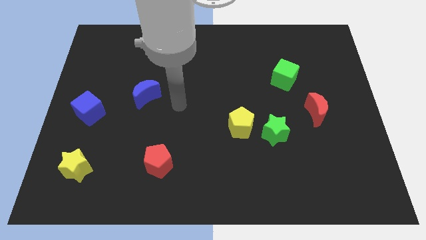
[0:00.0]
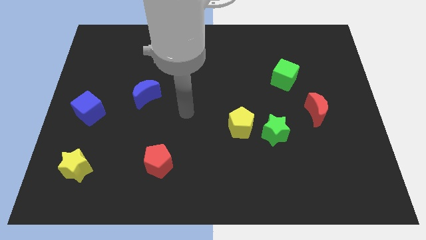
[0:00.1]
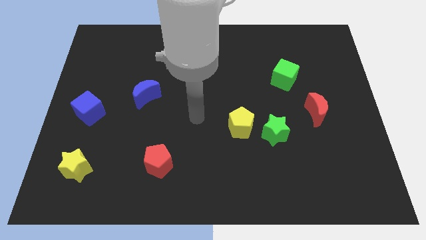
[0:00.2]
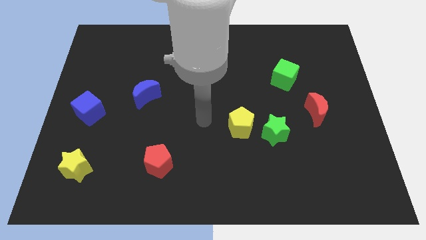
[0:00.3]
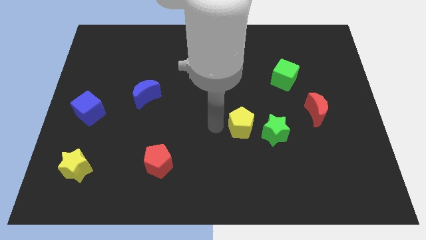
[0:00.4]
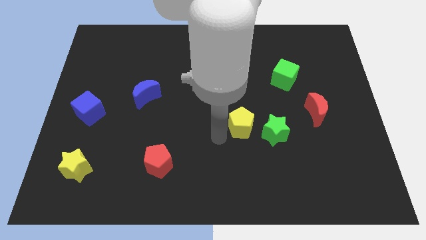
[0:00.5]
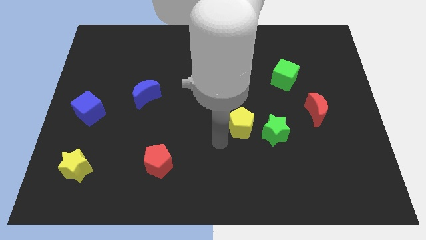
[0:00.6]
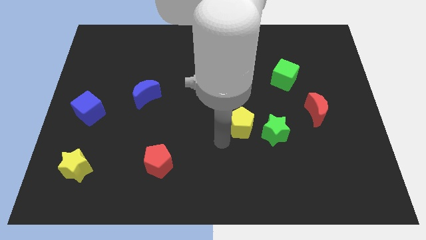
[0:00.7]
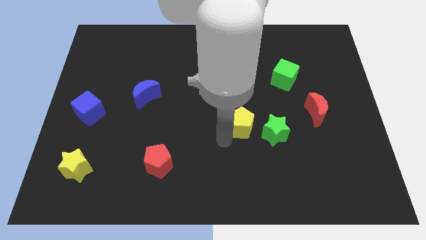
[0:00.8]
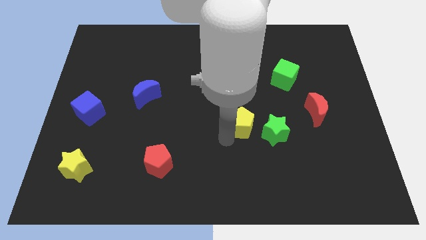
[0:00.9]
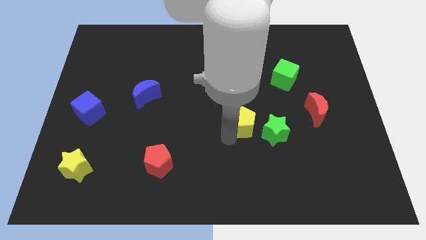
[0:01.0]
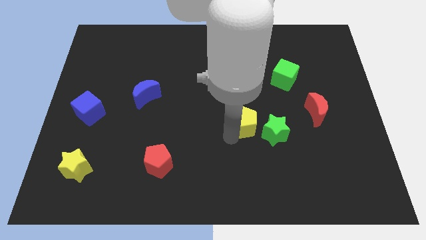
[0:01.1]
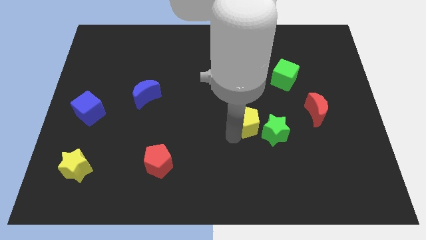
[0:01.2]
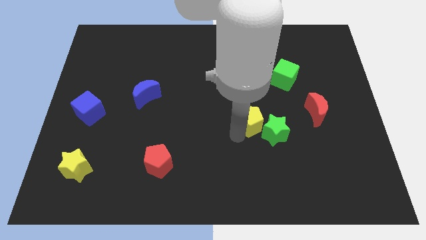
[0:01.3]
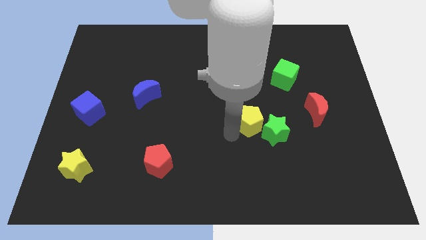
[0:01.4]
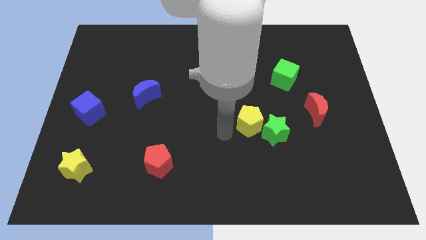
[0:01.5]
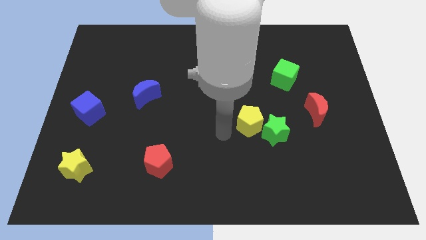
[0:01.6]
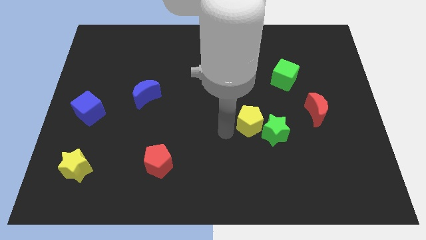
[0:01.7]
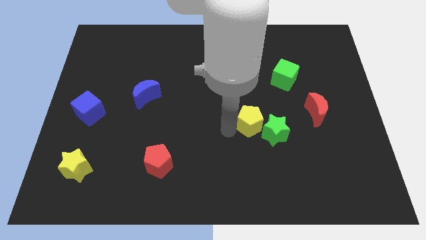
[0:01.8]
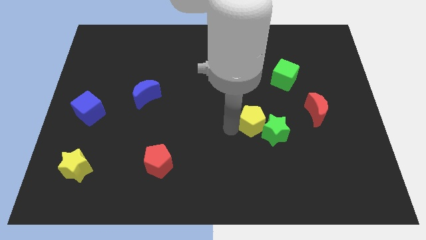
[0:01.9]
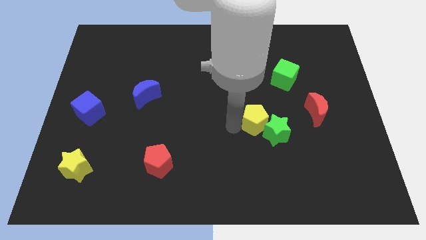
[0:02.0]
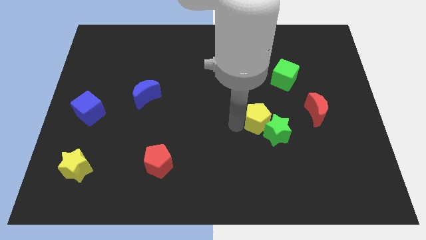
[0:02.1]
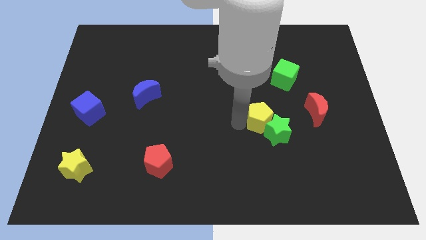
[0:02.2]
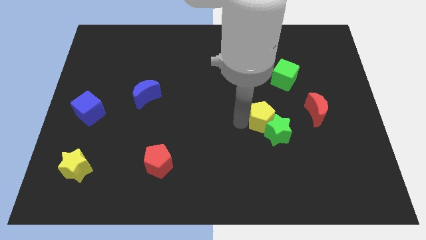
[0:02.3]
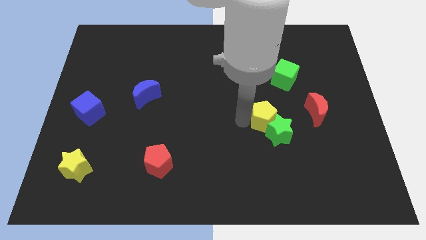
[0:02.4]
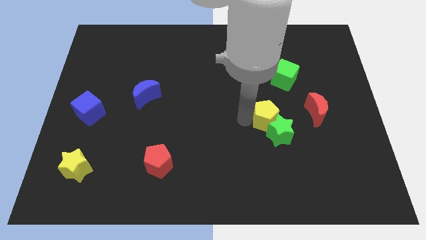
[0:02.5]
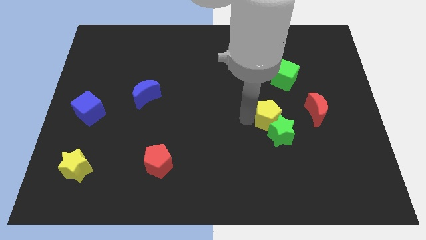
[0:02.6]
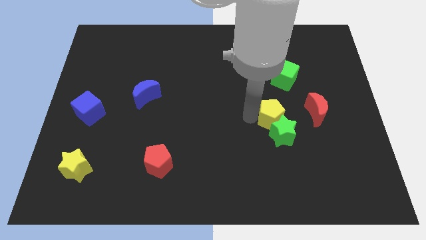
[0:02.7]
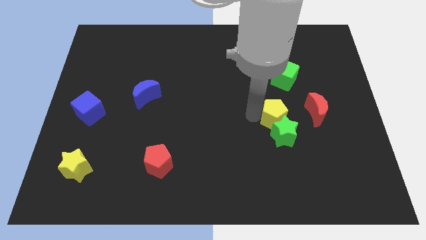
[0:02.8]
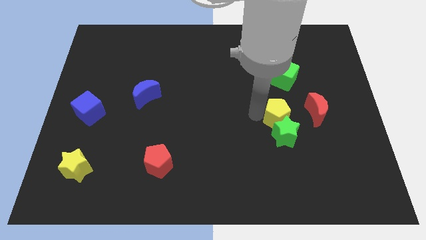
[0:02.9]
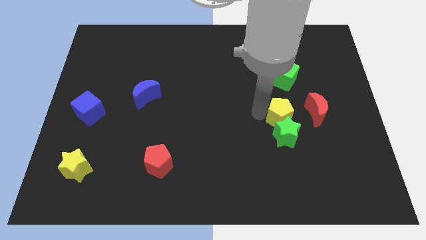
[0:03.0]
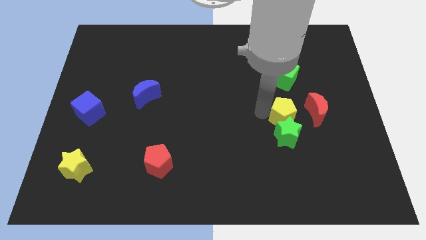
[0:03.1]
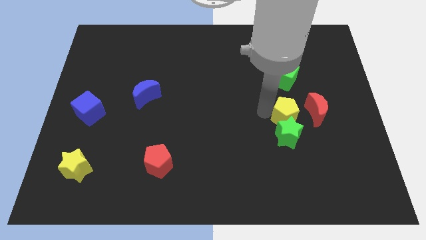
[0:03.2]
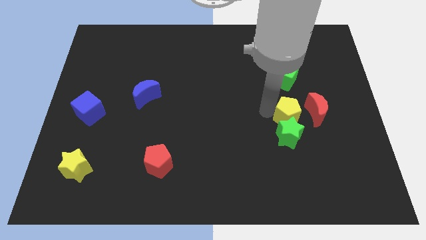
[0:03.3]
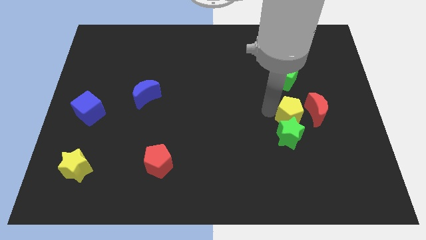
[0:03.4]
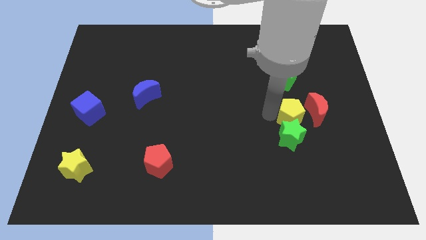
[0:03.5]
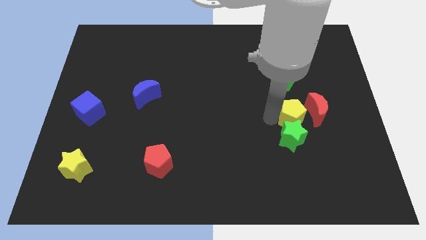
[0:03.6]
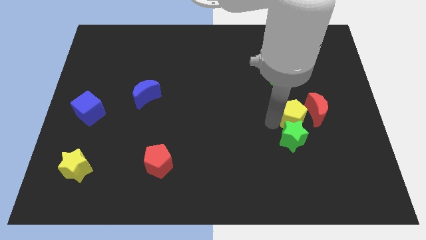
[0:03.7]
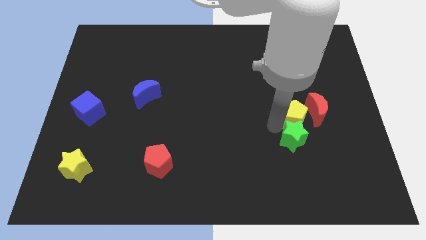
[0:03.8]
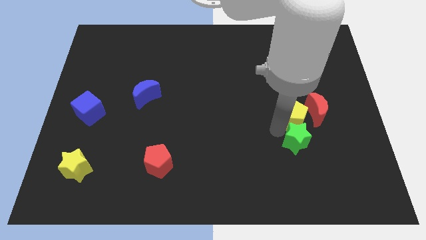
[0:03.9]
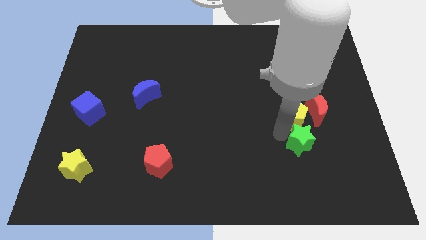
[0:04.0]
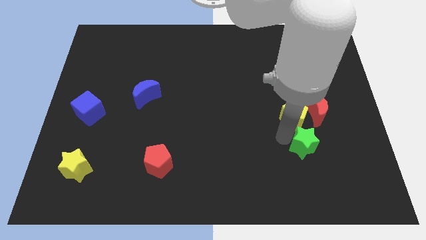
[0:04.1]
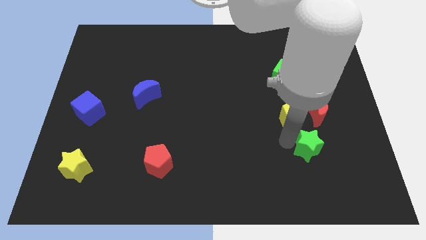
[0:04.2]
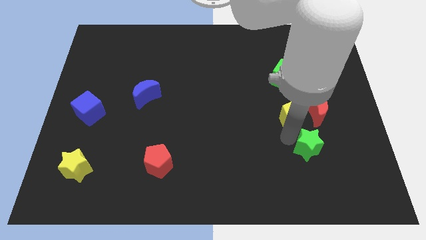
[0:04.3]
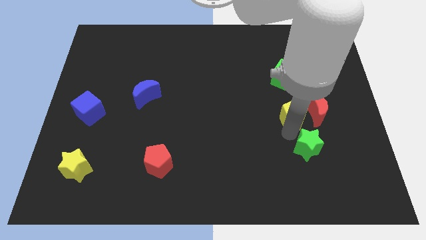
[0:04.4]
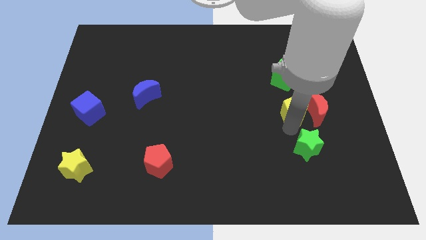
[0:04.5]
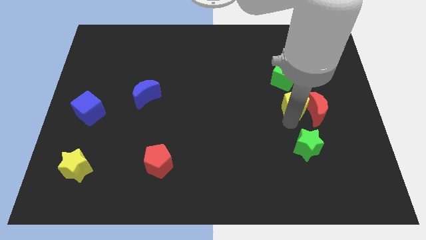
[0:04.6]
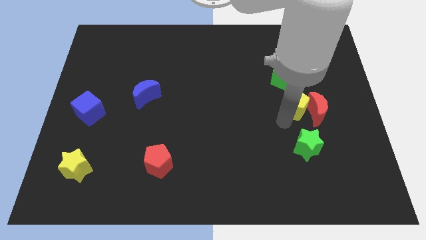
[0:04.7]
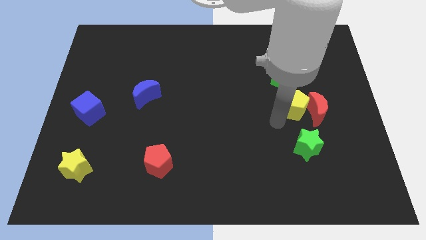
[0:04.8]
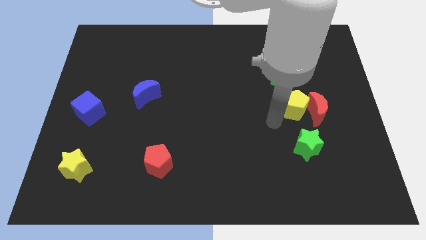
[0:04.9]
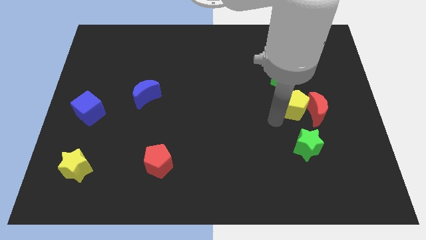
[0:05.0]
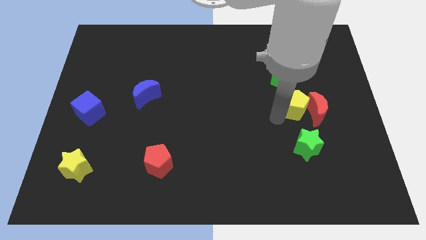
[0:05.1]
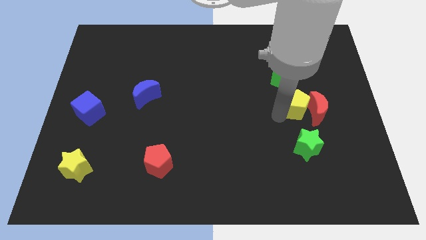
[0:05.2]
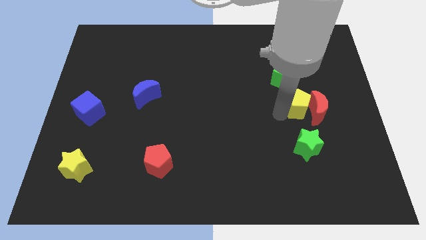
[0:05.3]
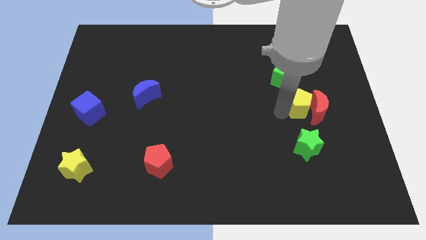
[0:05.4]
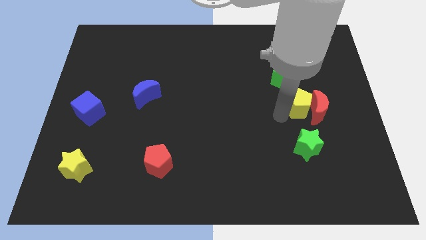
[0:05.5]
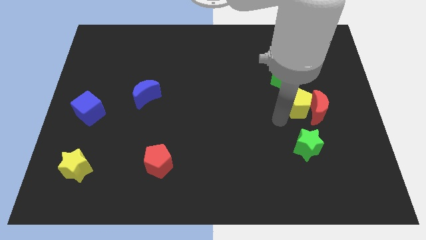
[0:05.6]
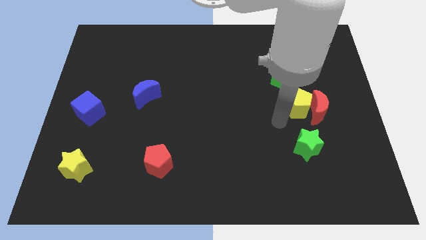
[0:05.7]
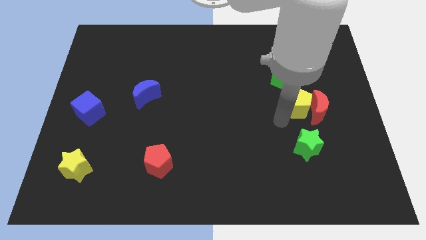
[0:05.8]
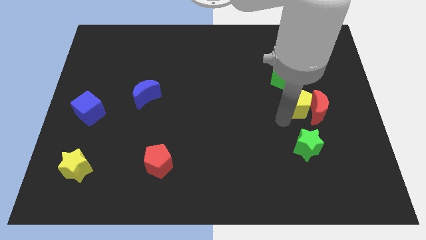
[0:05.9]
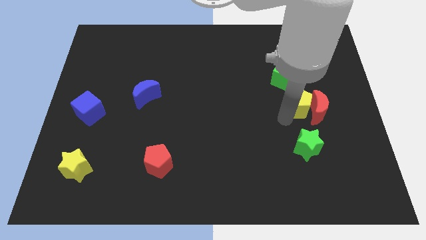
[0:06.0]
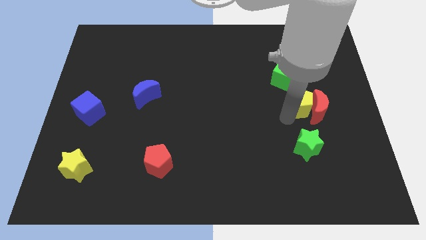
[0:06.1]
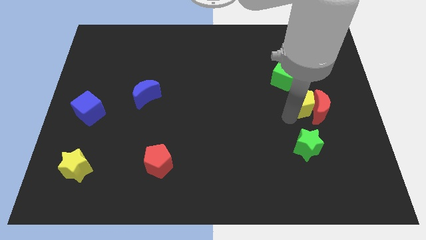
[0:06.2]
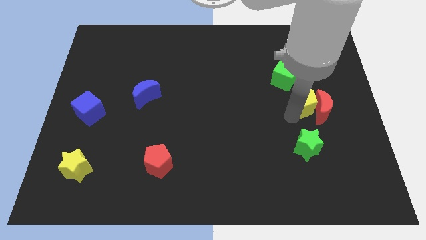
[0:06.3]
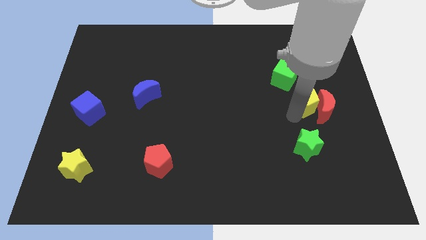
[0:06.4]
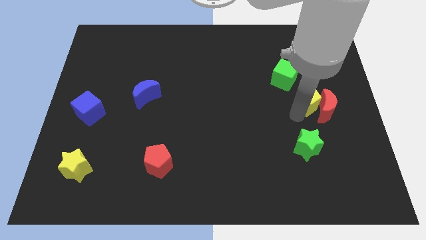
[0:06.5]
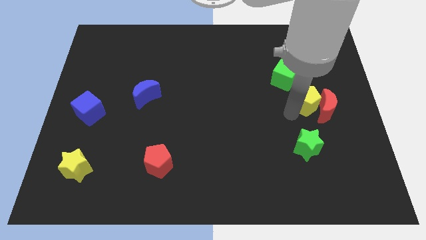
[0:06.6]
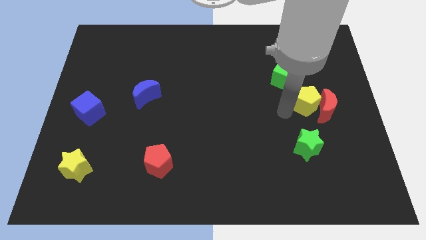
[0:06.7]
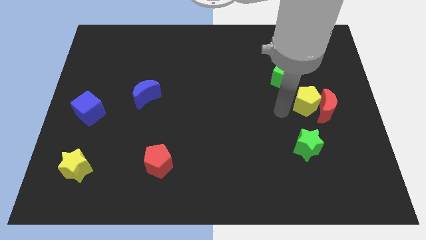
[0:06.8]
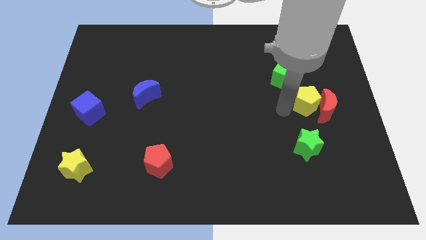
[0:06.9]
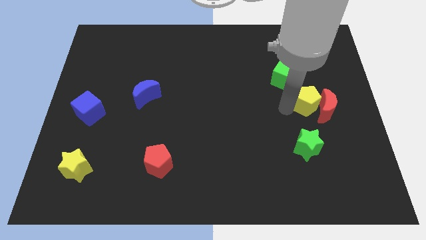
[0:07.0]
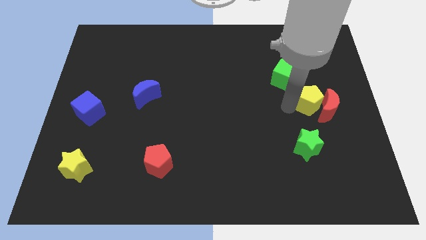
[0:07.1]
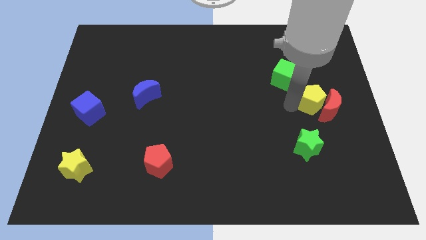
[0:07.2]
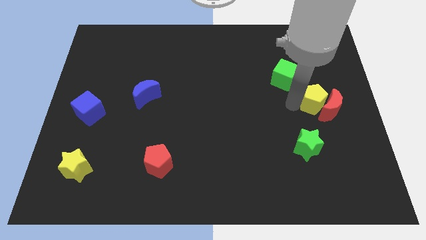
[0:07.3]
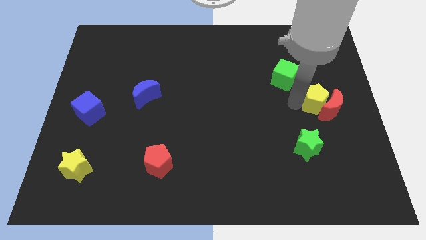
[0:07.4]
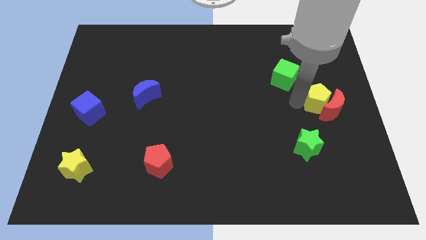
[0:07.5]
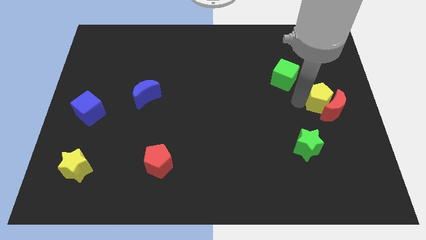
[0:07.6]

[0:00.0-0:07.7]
put the yellow pentagon to the right side
